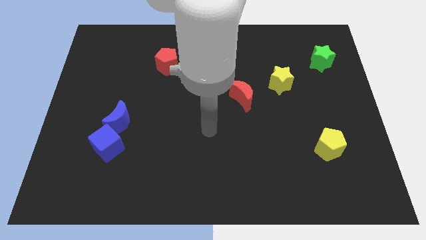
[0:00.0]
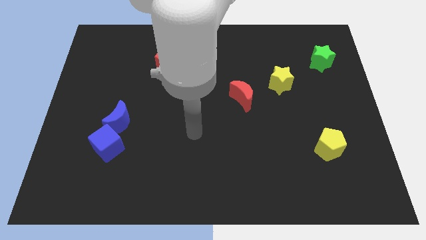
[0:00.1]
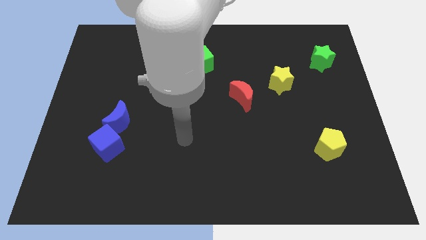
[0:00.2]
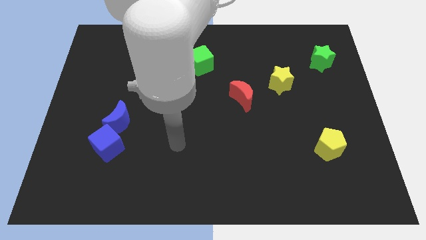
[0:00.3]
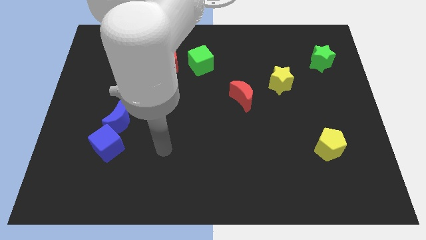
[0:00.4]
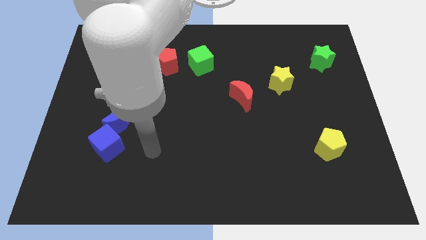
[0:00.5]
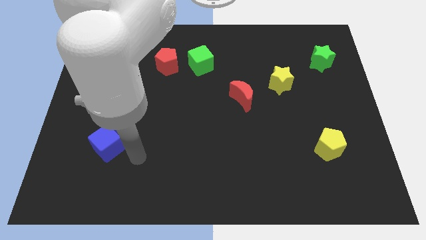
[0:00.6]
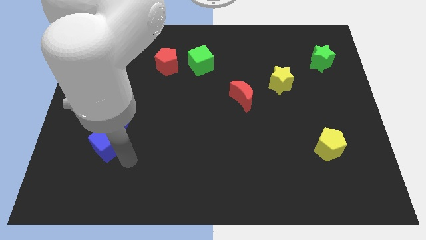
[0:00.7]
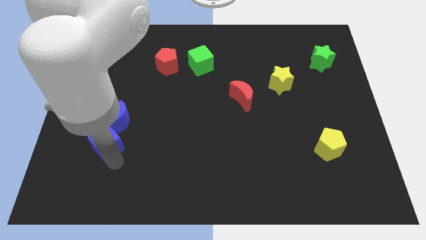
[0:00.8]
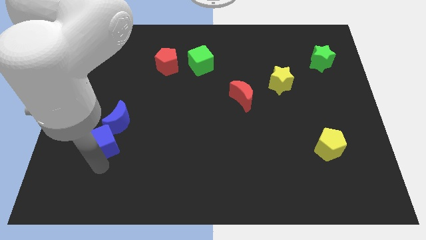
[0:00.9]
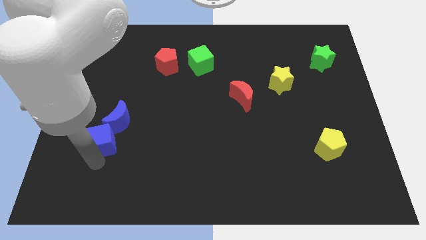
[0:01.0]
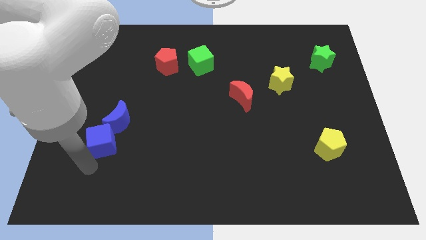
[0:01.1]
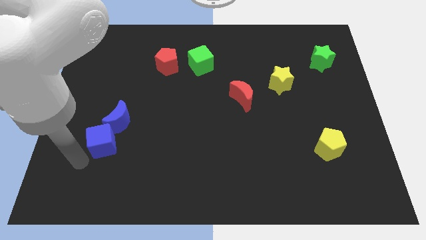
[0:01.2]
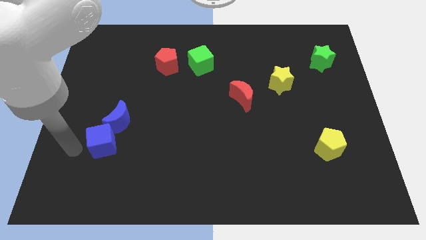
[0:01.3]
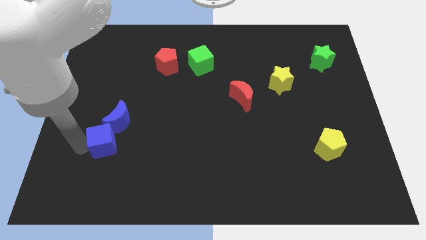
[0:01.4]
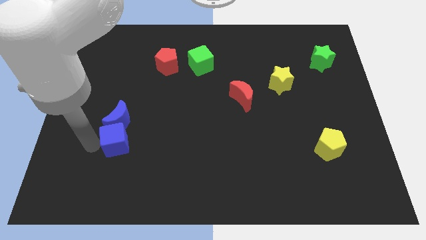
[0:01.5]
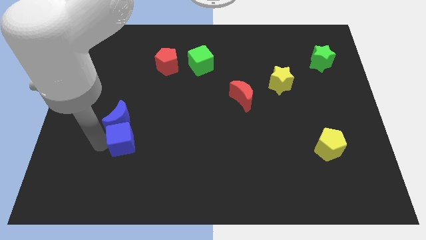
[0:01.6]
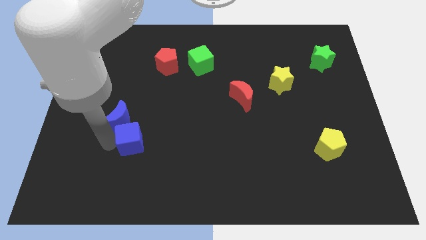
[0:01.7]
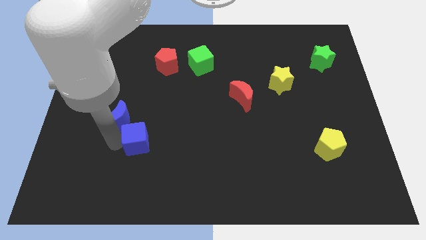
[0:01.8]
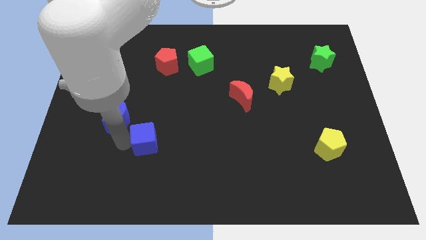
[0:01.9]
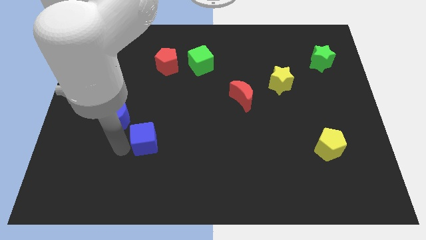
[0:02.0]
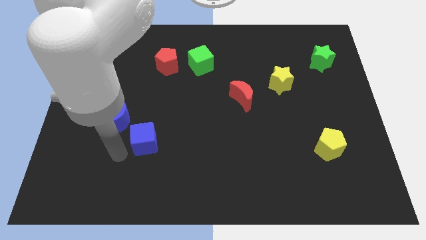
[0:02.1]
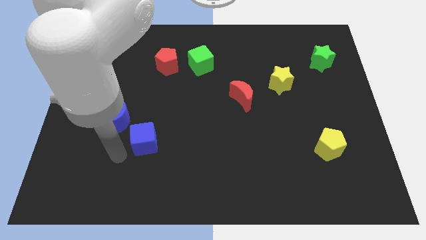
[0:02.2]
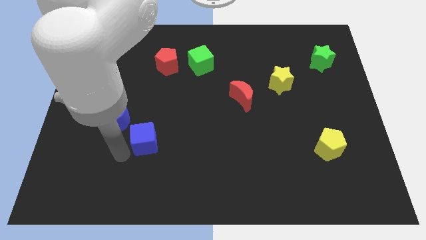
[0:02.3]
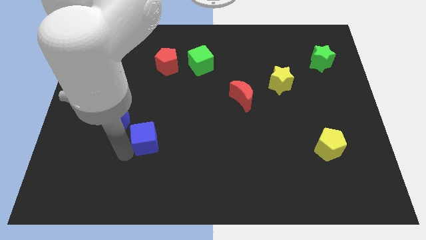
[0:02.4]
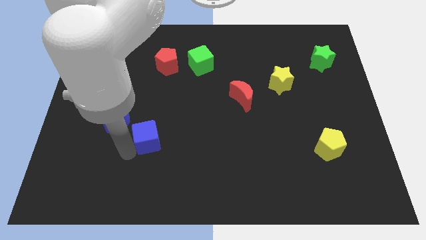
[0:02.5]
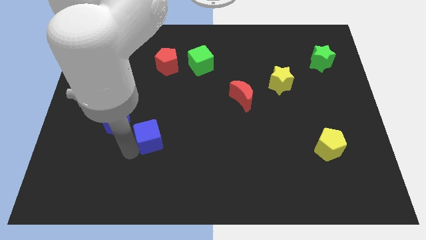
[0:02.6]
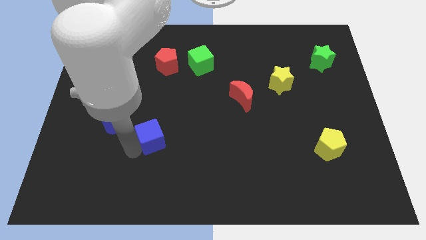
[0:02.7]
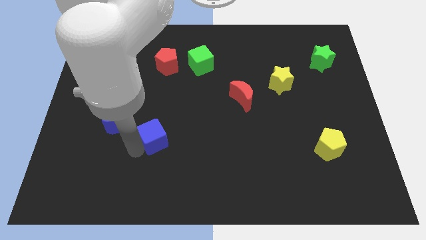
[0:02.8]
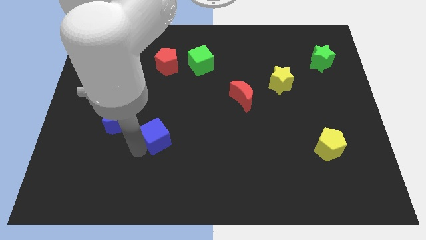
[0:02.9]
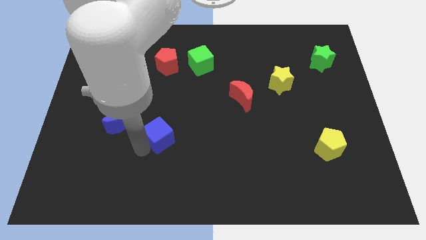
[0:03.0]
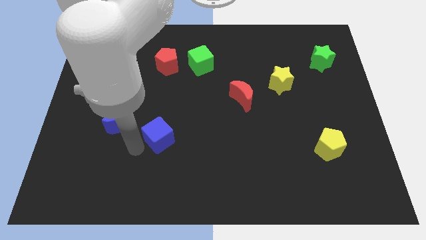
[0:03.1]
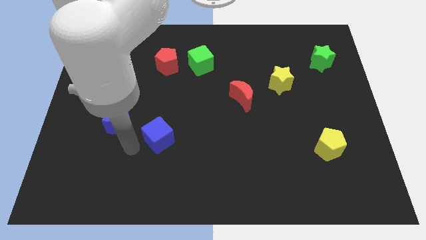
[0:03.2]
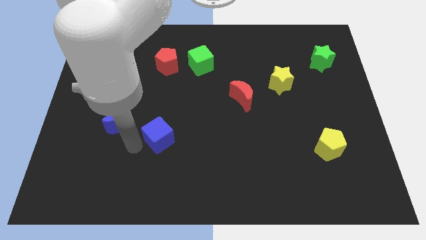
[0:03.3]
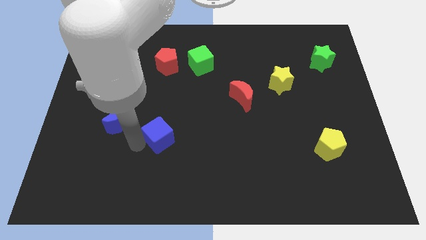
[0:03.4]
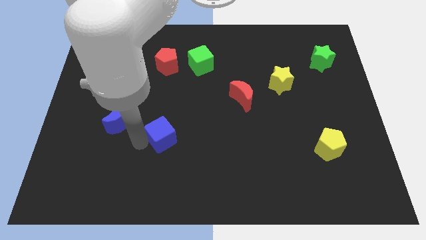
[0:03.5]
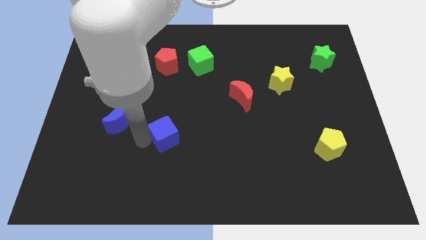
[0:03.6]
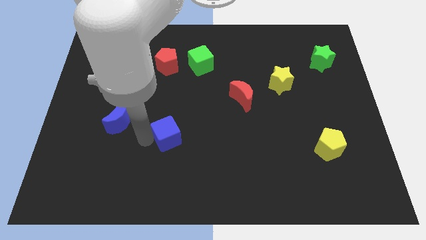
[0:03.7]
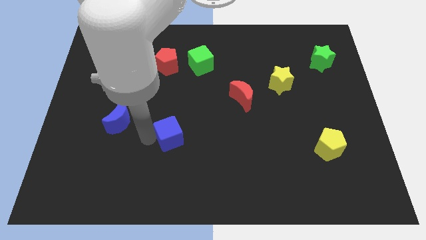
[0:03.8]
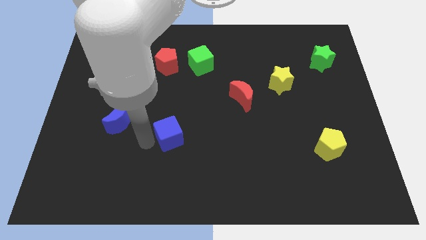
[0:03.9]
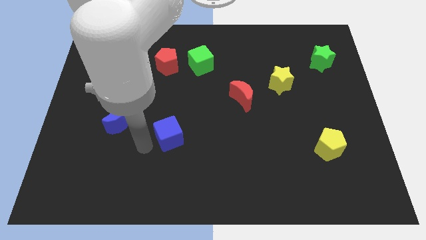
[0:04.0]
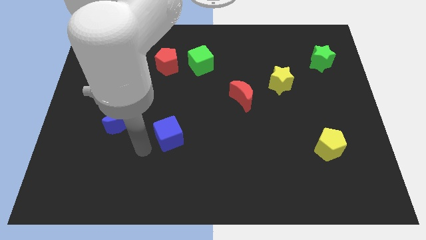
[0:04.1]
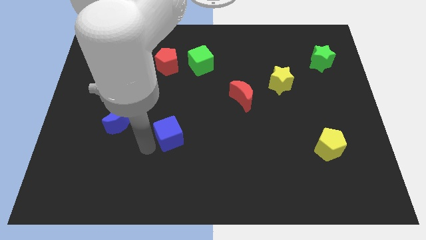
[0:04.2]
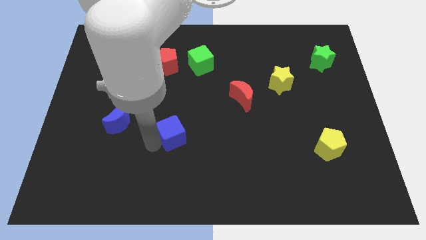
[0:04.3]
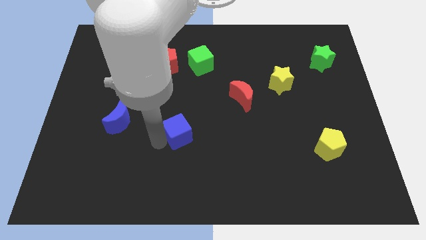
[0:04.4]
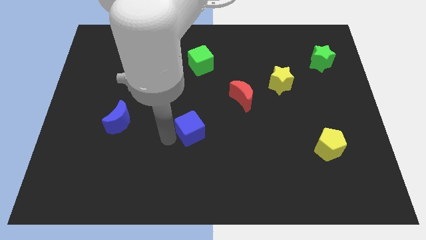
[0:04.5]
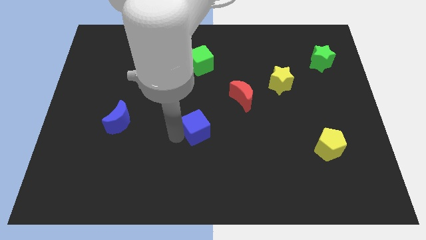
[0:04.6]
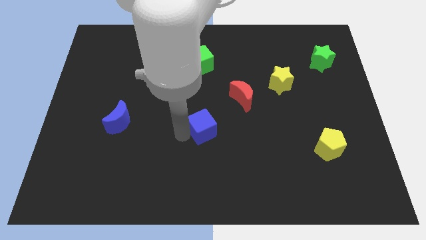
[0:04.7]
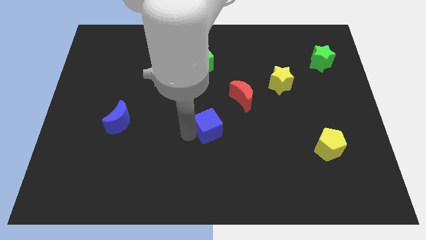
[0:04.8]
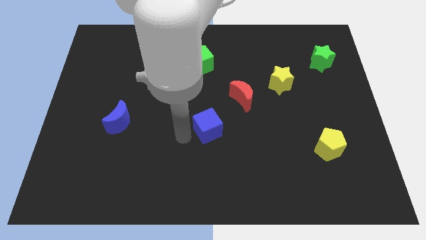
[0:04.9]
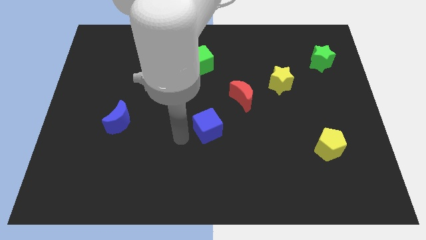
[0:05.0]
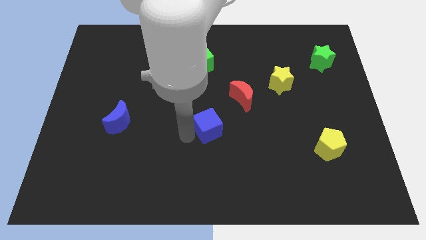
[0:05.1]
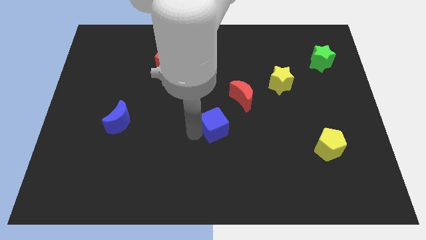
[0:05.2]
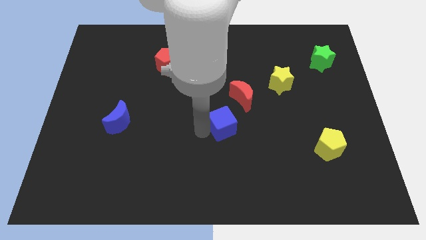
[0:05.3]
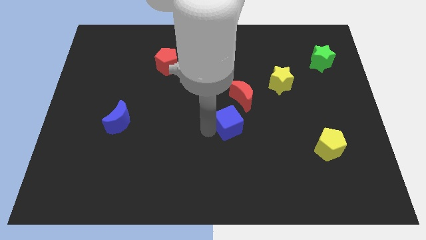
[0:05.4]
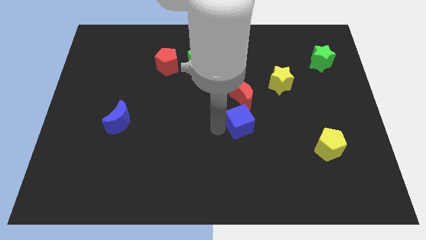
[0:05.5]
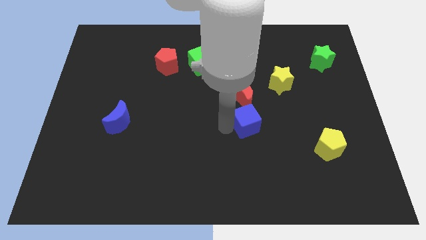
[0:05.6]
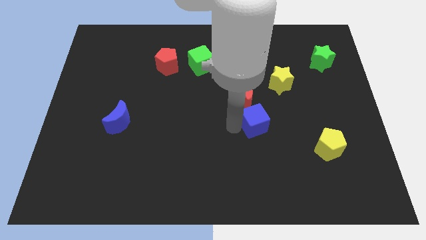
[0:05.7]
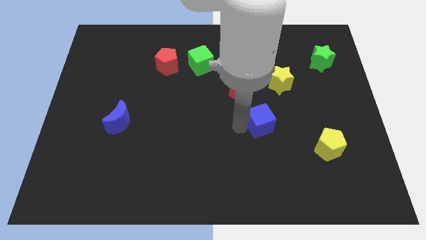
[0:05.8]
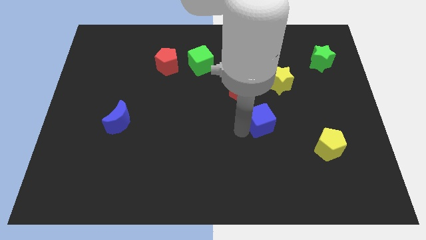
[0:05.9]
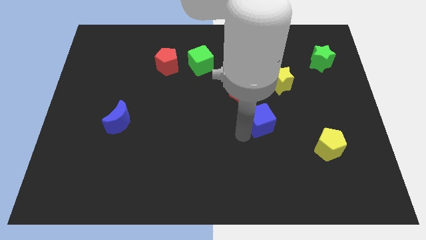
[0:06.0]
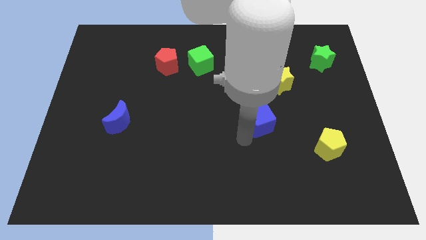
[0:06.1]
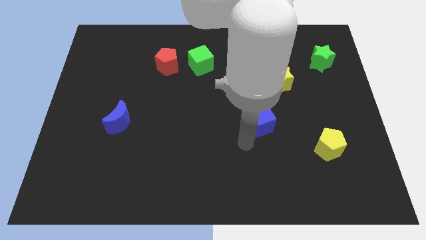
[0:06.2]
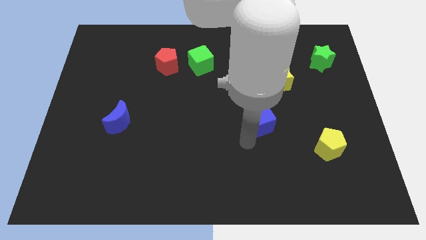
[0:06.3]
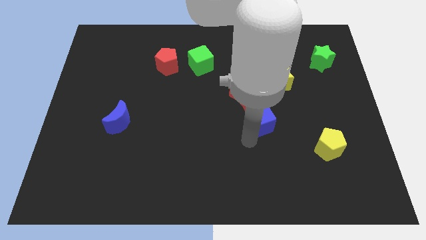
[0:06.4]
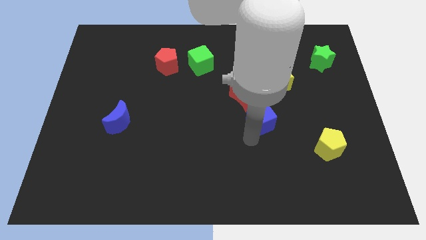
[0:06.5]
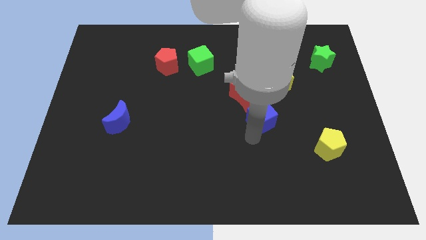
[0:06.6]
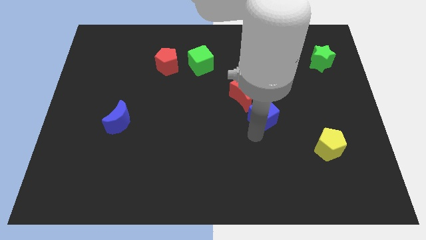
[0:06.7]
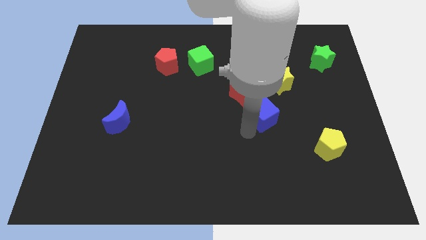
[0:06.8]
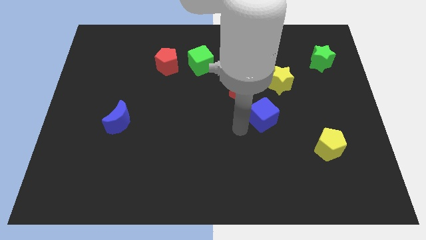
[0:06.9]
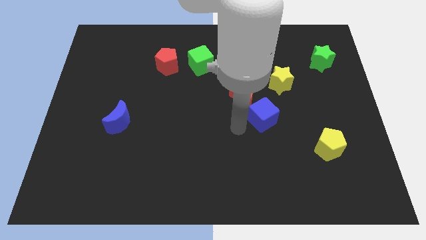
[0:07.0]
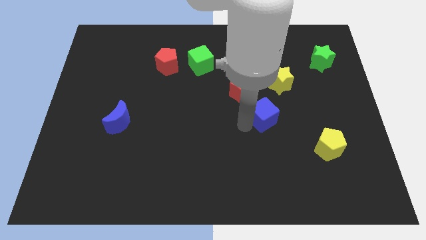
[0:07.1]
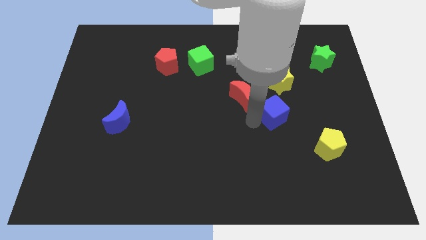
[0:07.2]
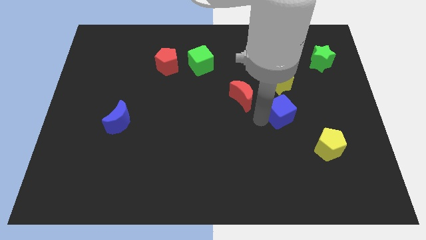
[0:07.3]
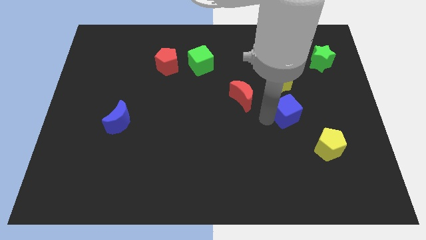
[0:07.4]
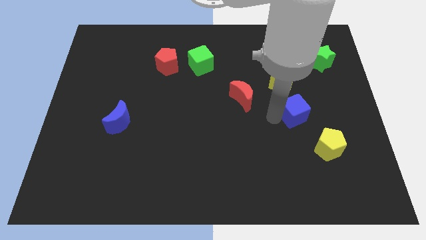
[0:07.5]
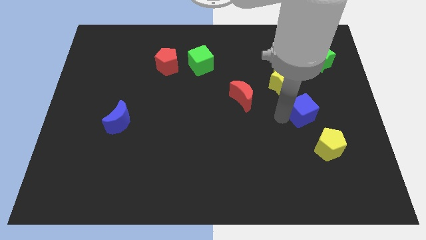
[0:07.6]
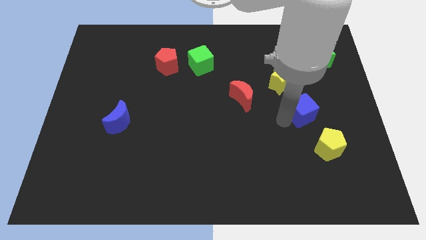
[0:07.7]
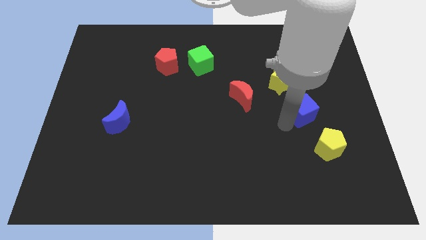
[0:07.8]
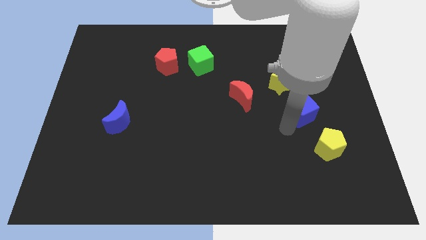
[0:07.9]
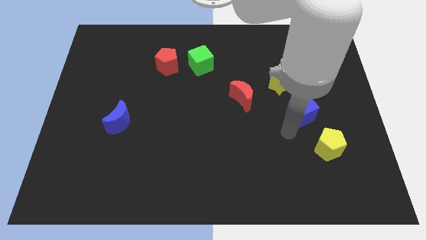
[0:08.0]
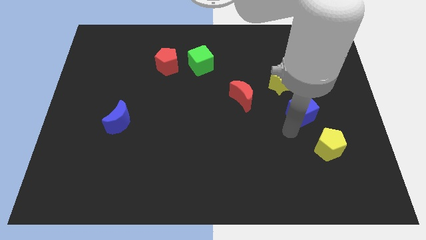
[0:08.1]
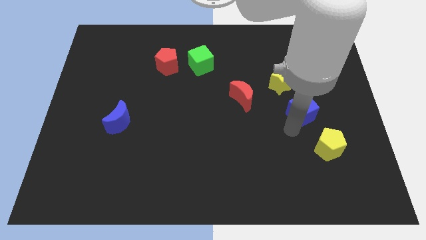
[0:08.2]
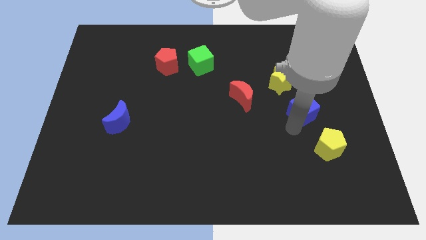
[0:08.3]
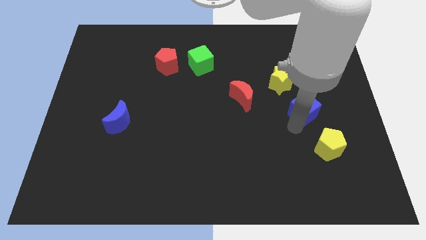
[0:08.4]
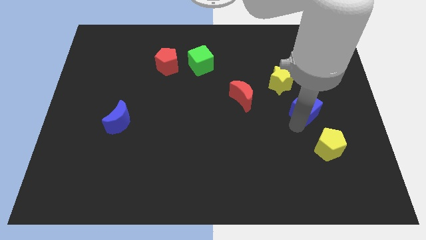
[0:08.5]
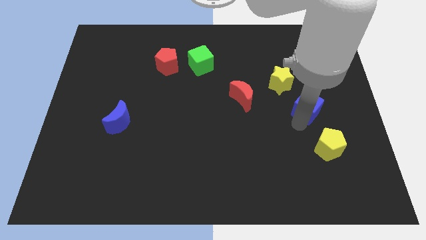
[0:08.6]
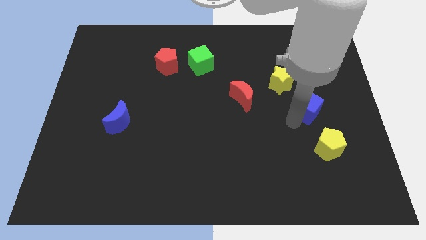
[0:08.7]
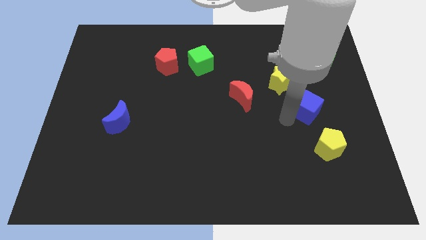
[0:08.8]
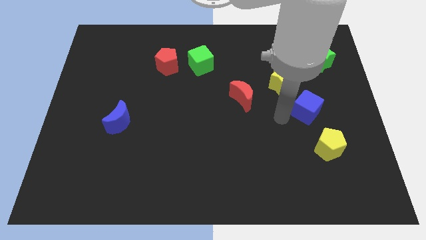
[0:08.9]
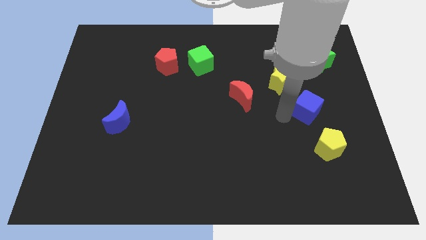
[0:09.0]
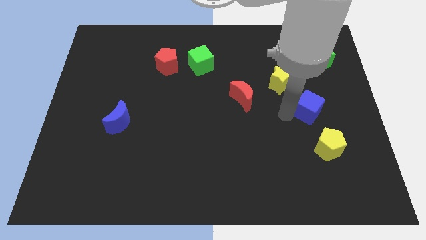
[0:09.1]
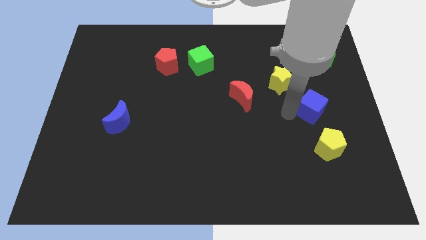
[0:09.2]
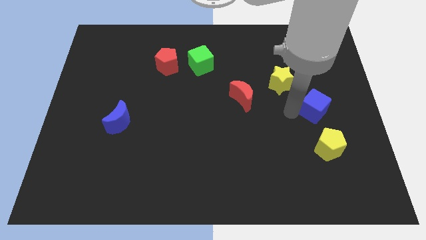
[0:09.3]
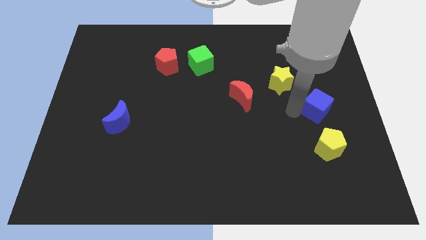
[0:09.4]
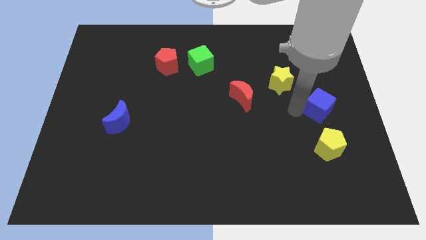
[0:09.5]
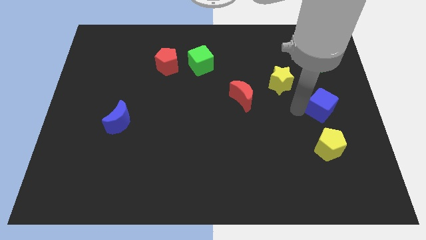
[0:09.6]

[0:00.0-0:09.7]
push the blue cube to the right side
